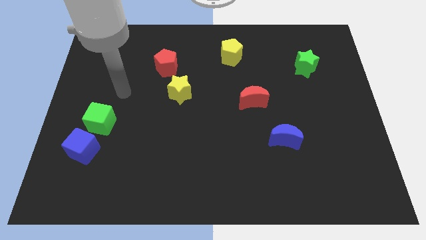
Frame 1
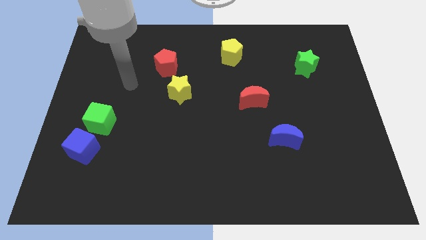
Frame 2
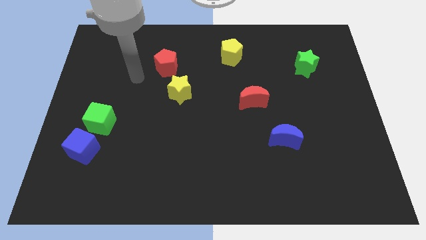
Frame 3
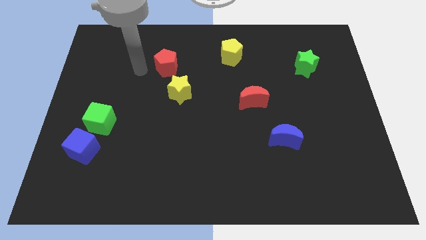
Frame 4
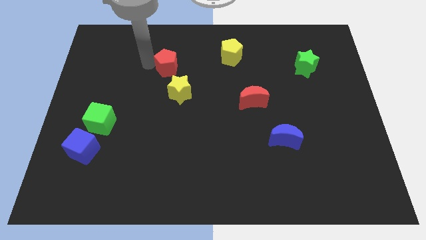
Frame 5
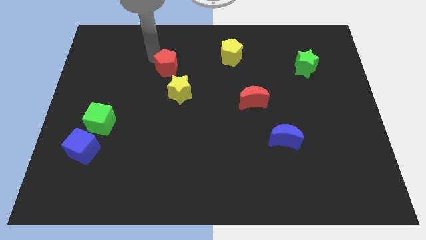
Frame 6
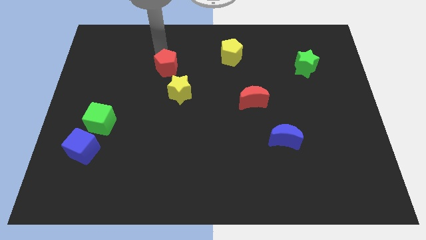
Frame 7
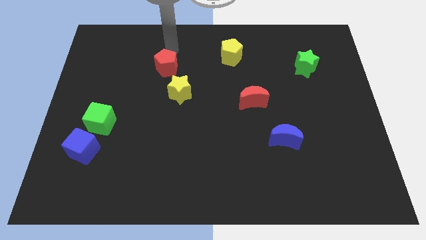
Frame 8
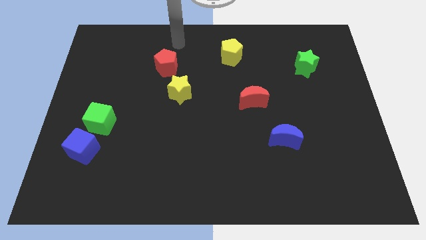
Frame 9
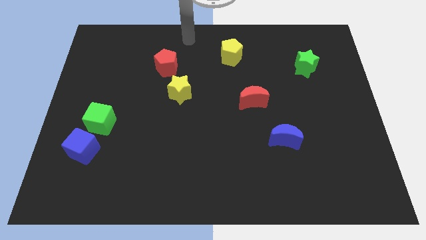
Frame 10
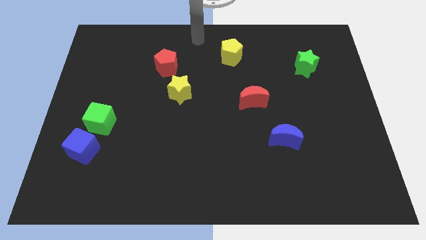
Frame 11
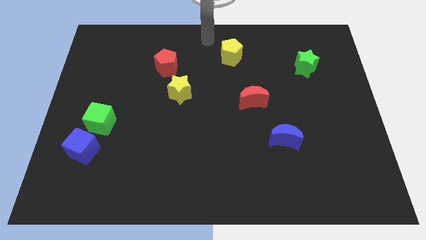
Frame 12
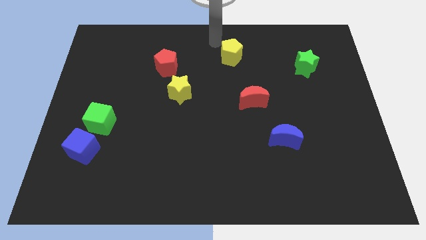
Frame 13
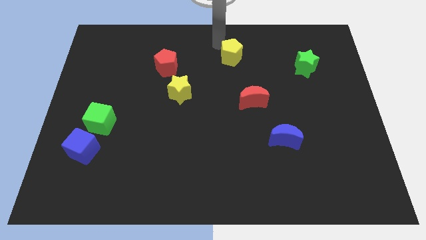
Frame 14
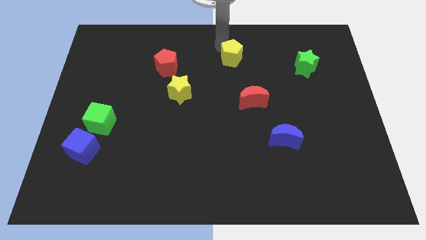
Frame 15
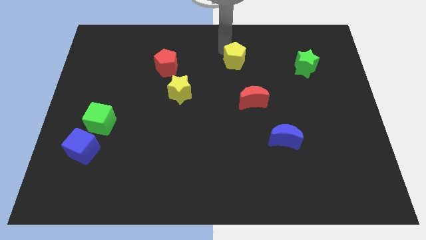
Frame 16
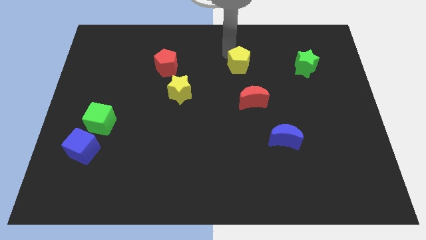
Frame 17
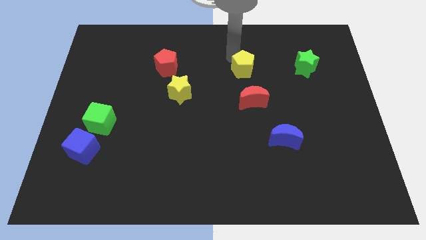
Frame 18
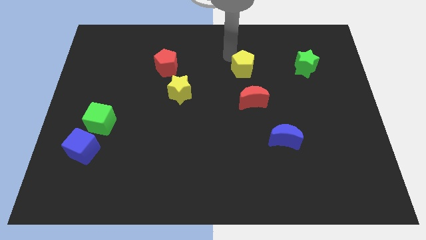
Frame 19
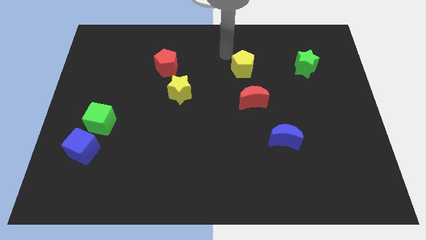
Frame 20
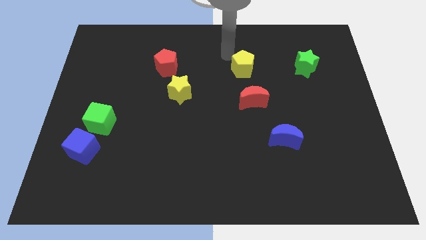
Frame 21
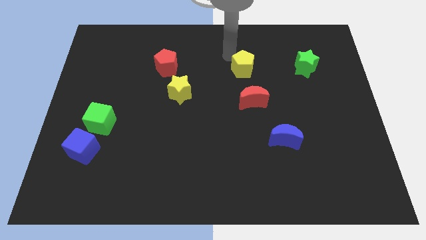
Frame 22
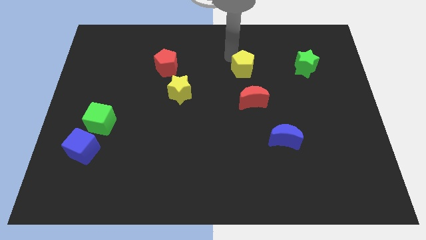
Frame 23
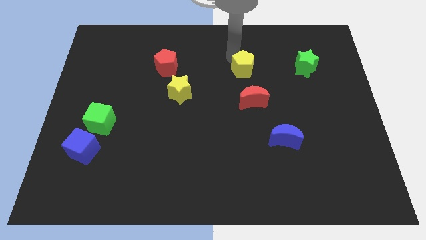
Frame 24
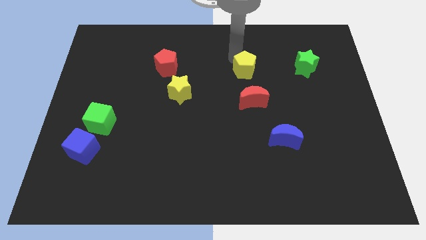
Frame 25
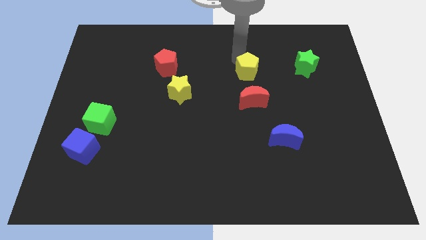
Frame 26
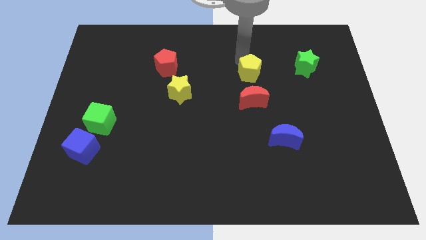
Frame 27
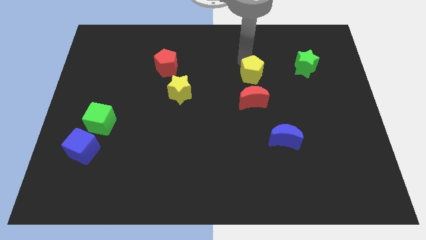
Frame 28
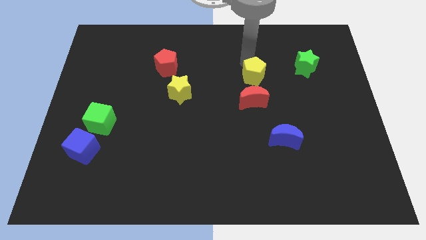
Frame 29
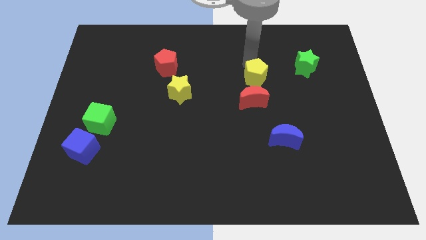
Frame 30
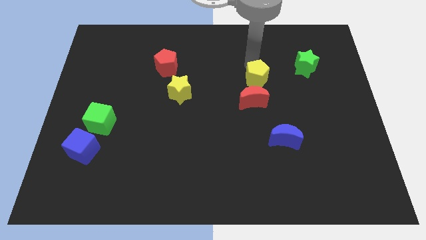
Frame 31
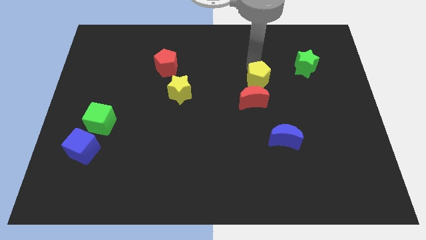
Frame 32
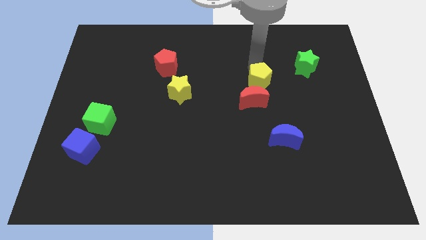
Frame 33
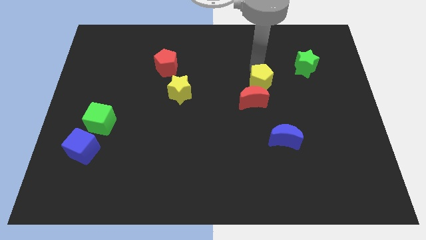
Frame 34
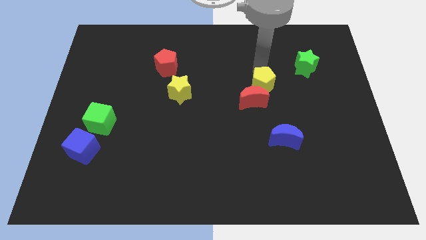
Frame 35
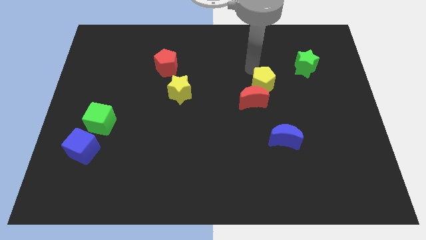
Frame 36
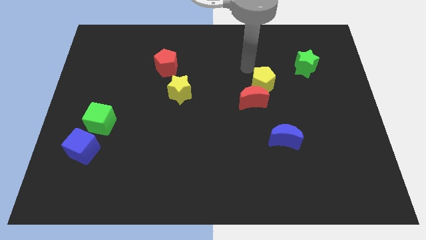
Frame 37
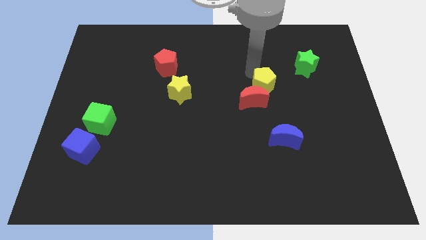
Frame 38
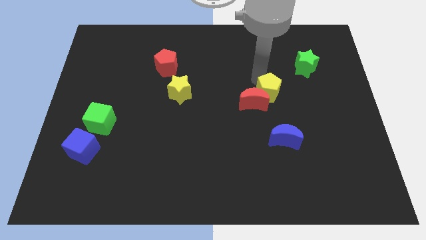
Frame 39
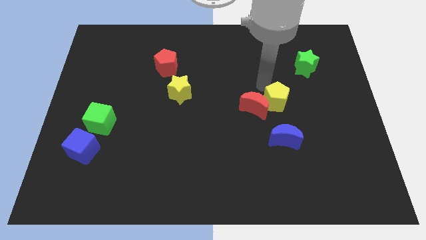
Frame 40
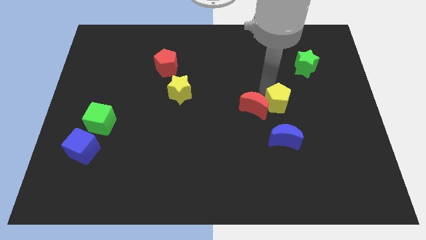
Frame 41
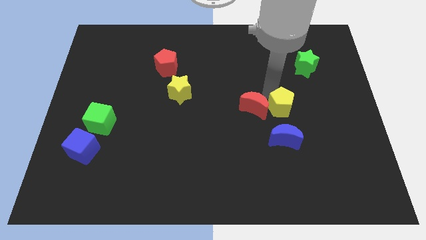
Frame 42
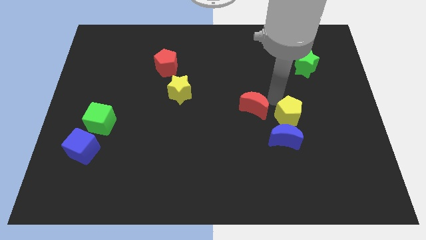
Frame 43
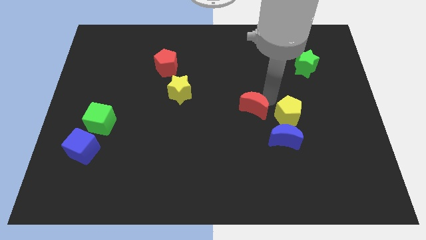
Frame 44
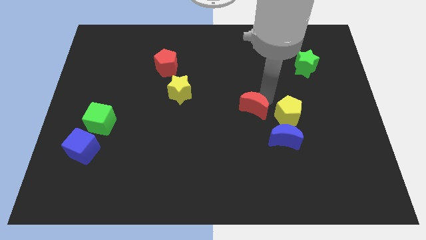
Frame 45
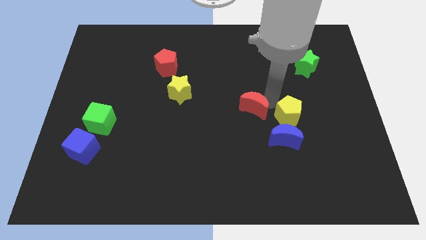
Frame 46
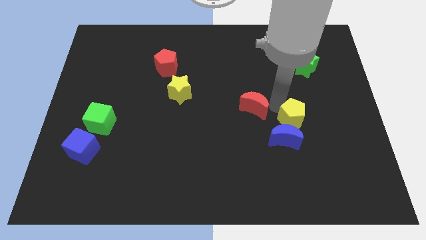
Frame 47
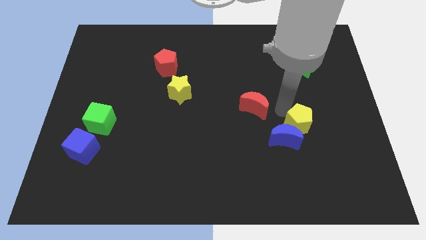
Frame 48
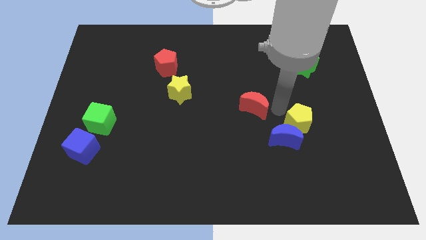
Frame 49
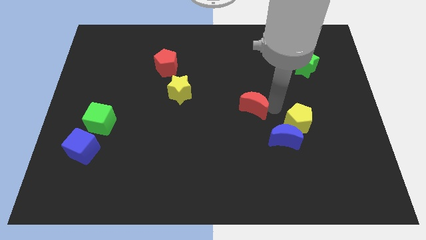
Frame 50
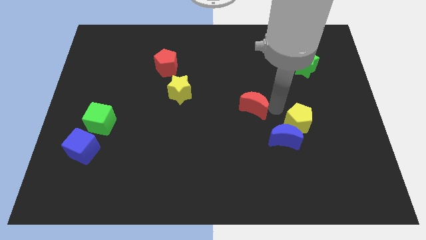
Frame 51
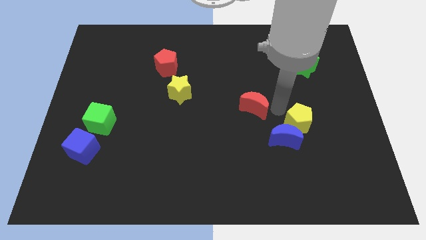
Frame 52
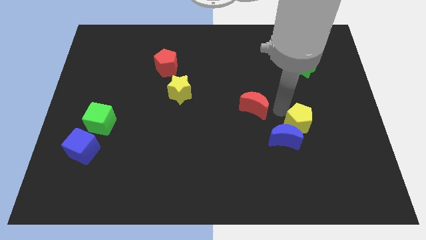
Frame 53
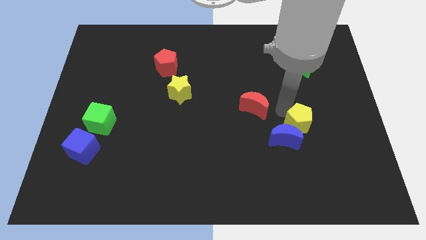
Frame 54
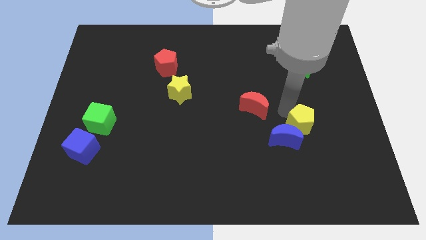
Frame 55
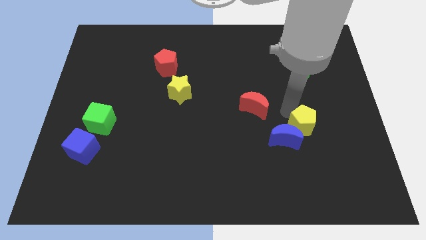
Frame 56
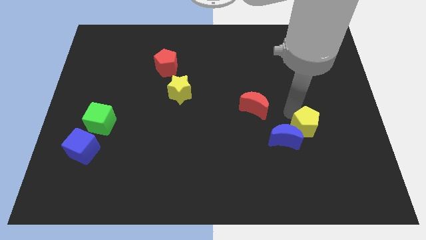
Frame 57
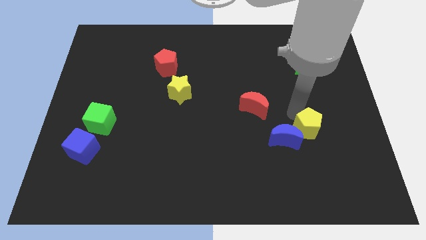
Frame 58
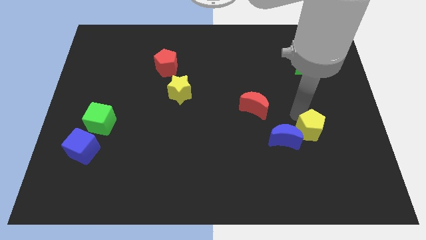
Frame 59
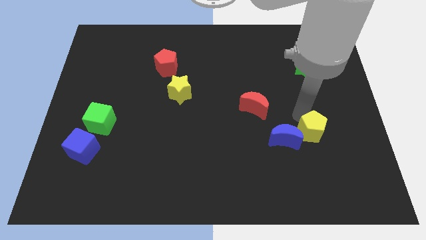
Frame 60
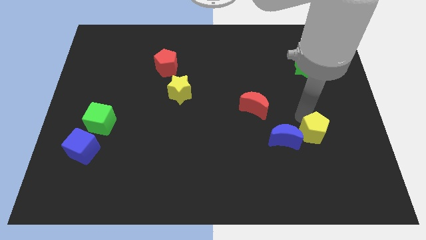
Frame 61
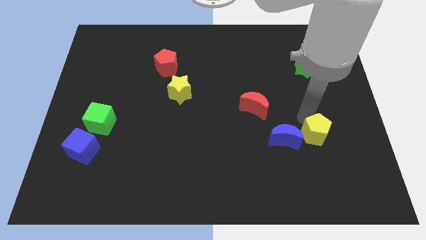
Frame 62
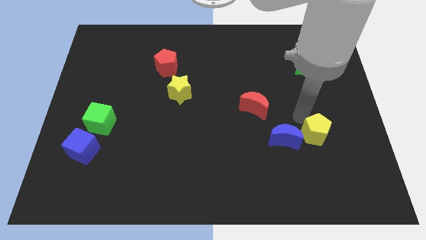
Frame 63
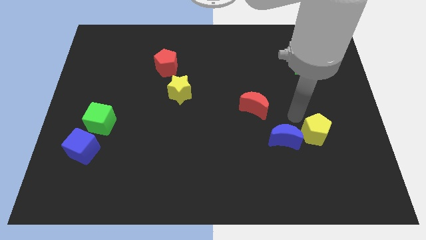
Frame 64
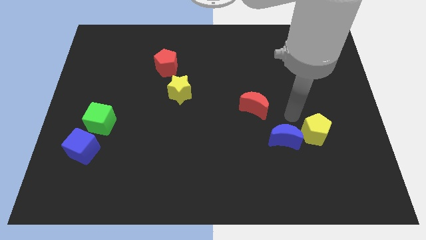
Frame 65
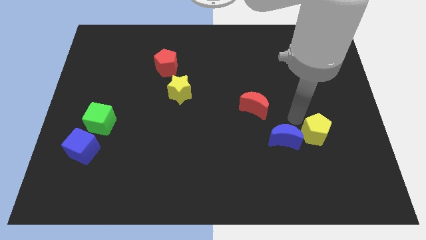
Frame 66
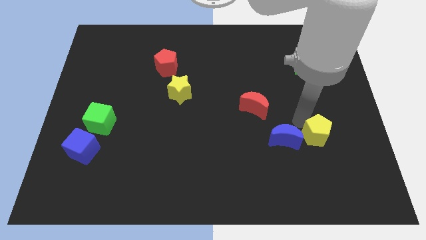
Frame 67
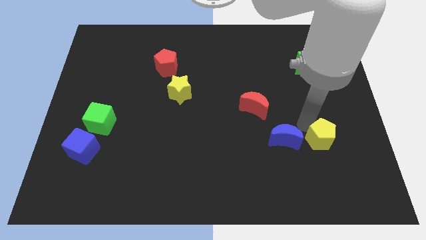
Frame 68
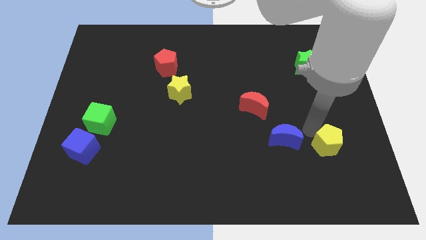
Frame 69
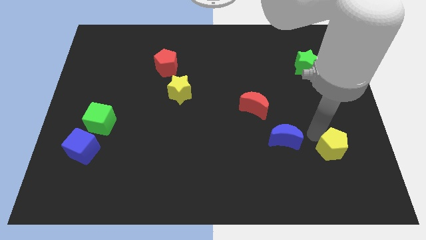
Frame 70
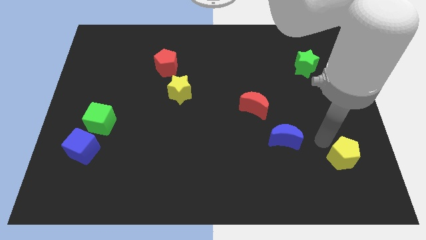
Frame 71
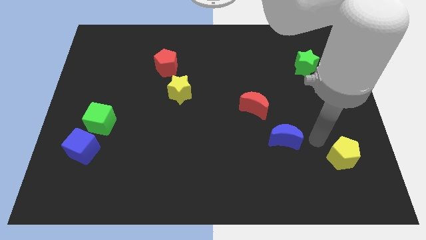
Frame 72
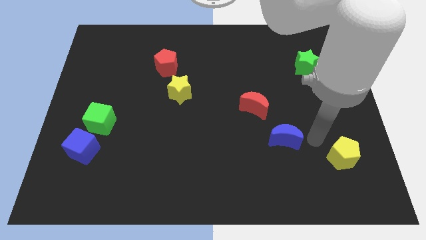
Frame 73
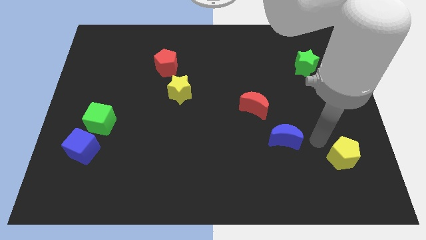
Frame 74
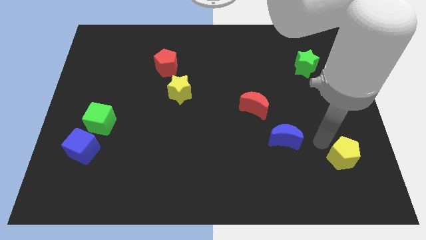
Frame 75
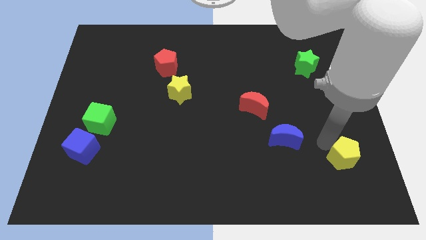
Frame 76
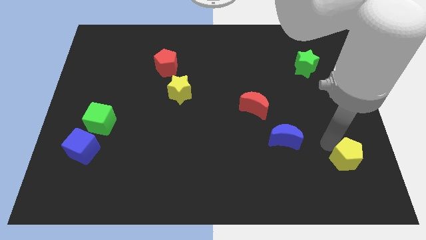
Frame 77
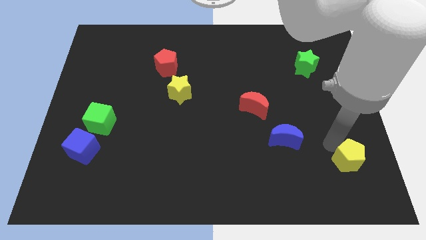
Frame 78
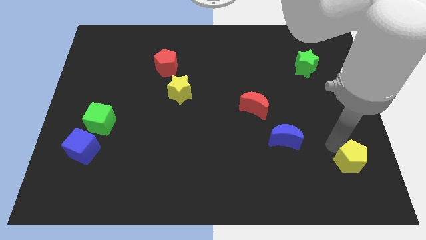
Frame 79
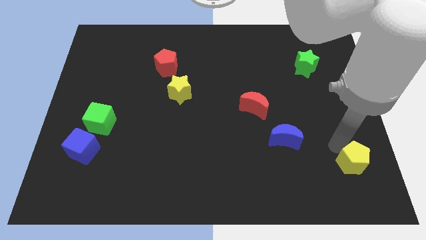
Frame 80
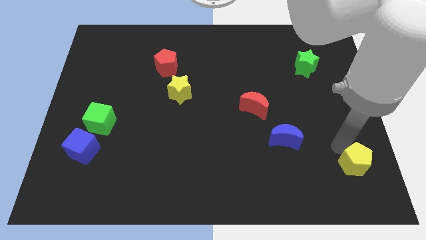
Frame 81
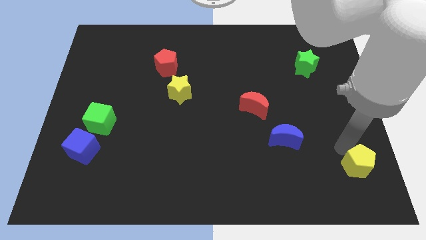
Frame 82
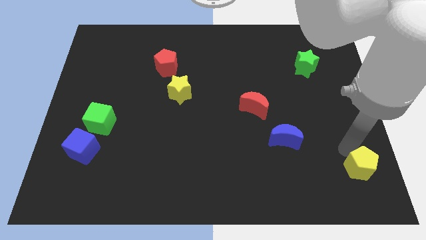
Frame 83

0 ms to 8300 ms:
put the yellow pentagon to the bottom right of the board
